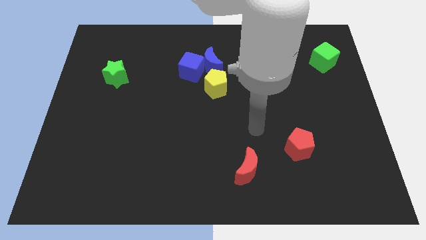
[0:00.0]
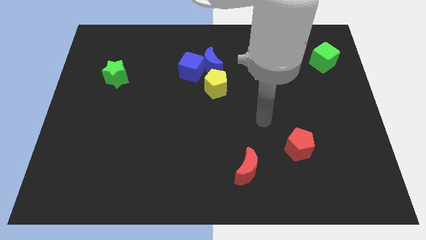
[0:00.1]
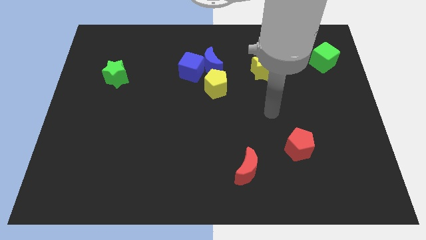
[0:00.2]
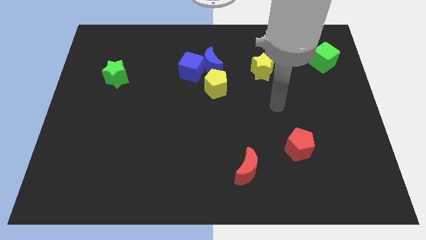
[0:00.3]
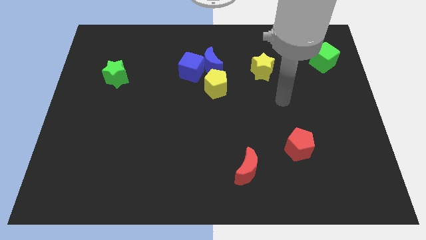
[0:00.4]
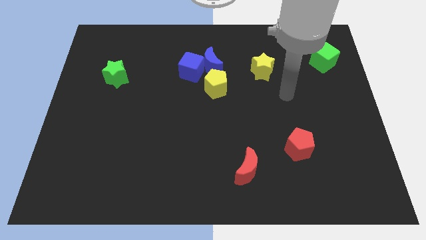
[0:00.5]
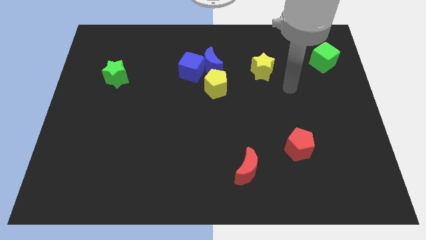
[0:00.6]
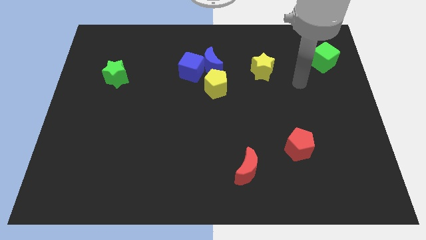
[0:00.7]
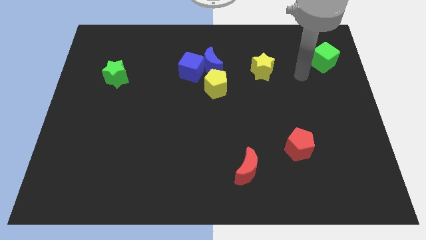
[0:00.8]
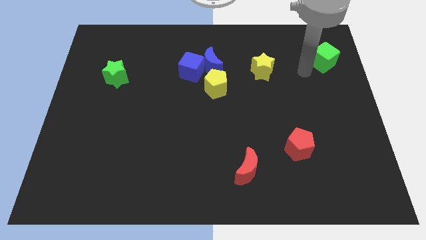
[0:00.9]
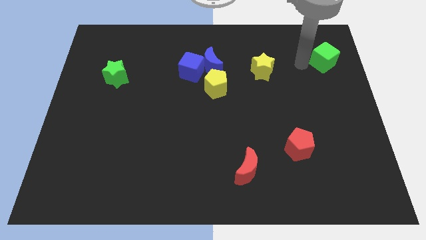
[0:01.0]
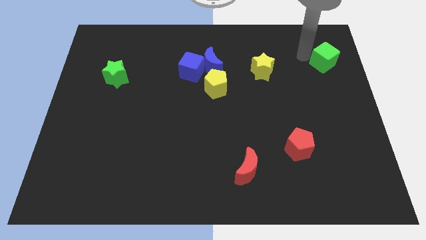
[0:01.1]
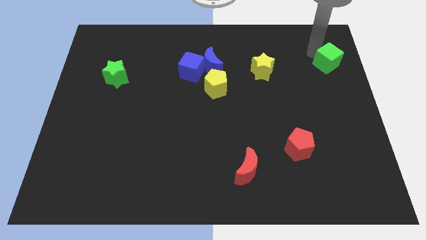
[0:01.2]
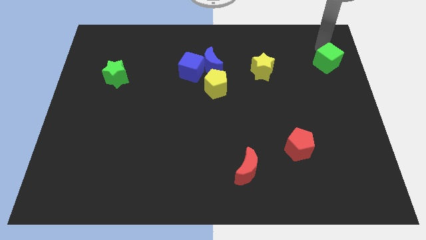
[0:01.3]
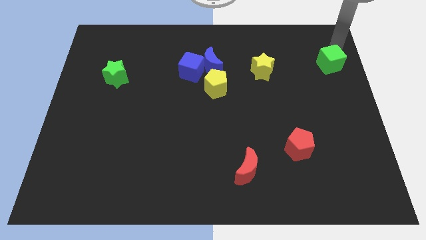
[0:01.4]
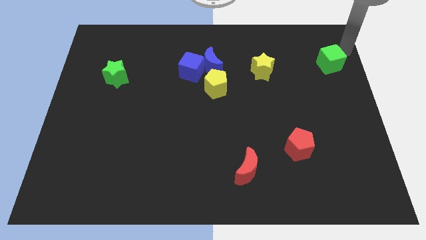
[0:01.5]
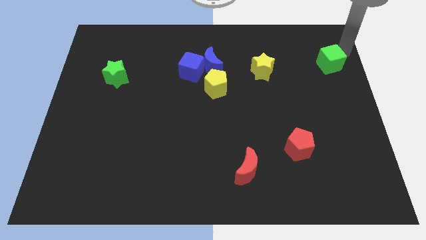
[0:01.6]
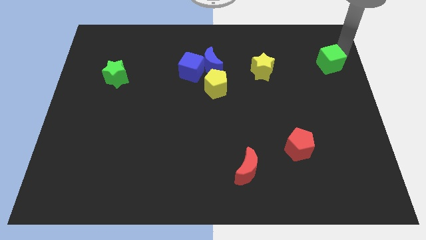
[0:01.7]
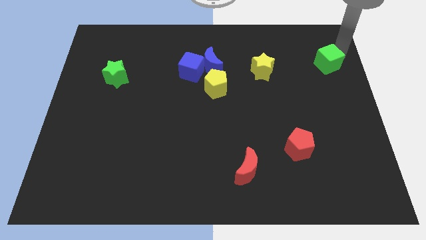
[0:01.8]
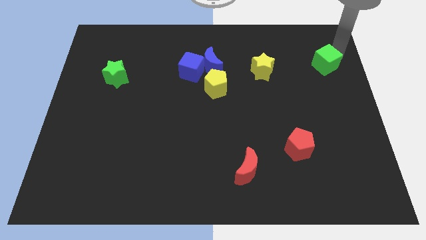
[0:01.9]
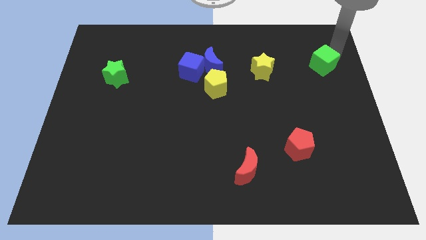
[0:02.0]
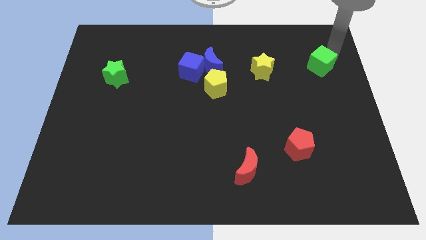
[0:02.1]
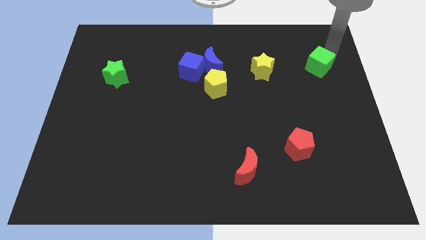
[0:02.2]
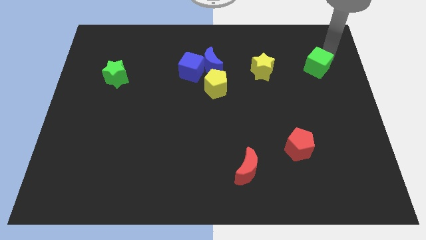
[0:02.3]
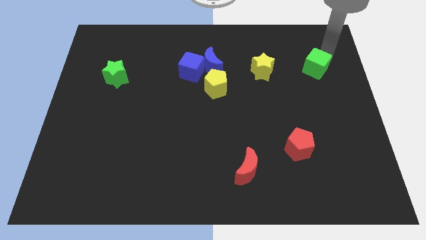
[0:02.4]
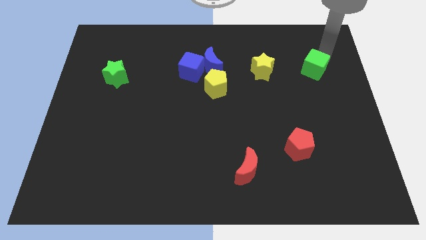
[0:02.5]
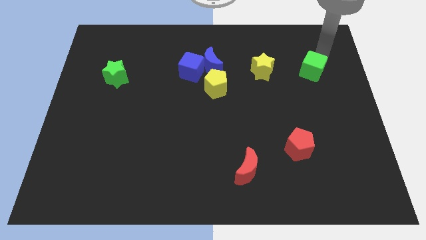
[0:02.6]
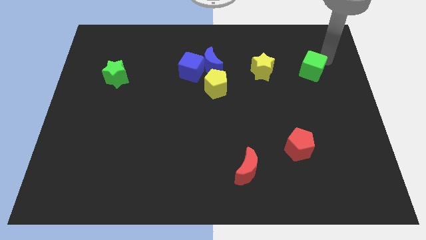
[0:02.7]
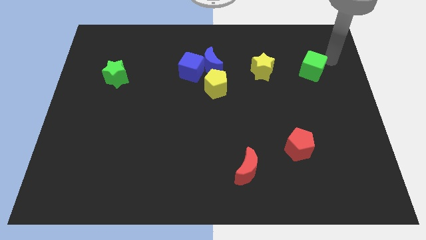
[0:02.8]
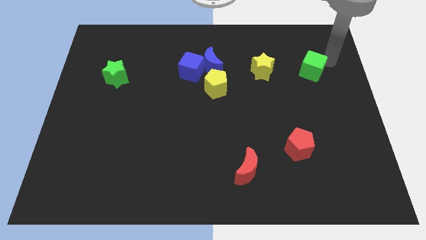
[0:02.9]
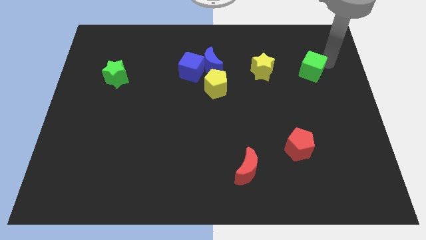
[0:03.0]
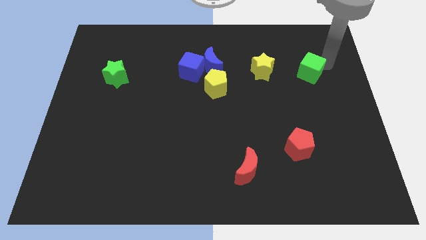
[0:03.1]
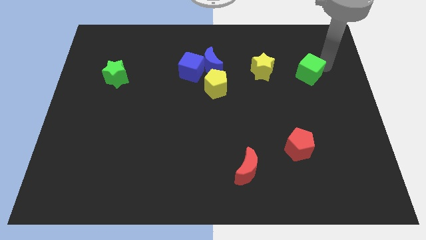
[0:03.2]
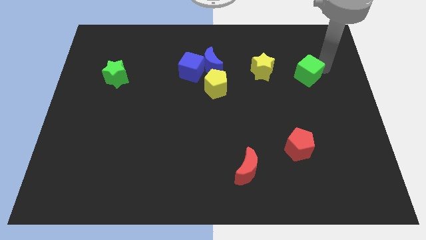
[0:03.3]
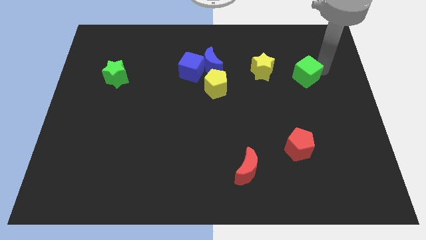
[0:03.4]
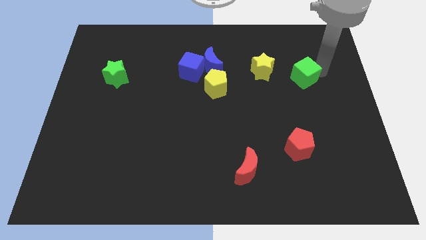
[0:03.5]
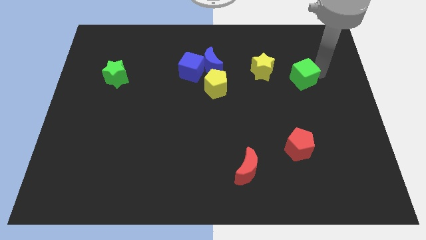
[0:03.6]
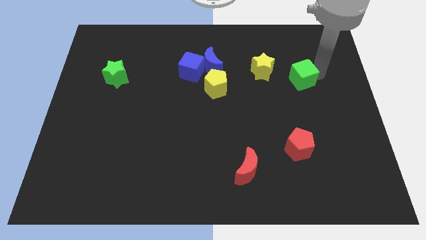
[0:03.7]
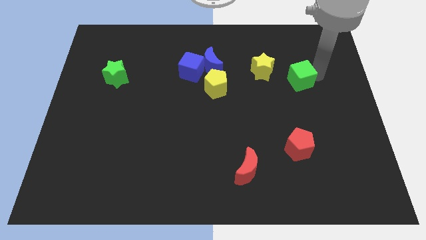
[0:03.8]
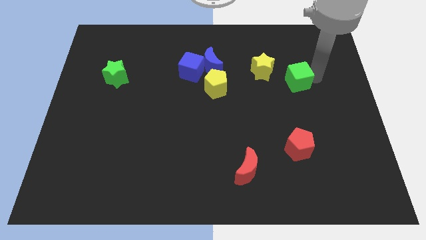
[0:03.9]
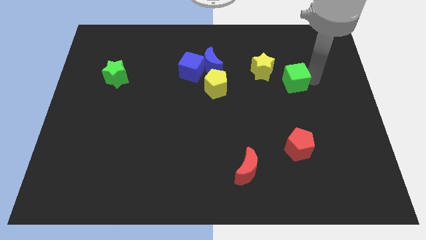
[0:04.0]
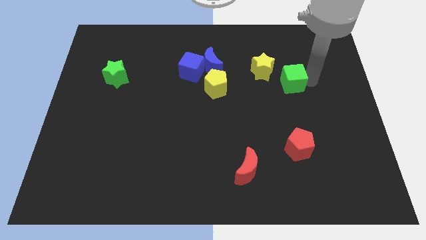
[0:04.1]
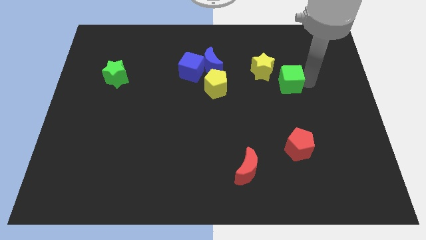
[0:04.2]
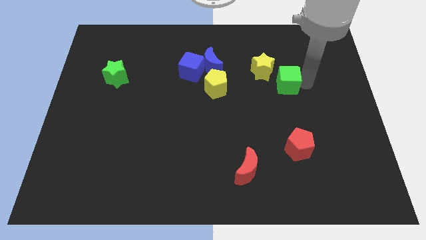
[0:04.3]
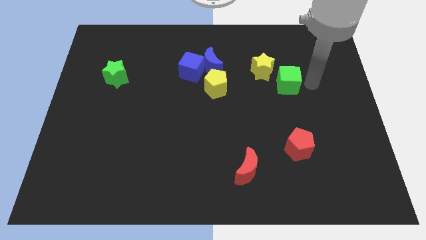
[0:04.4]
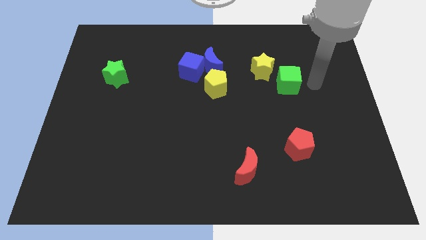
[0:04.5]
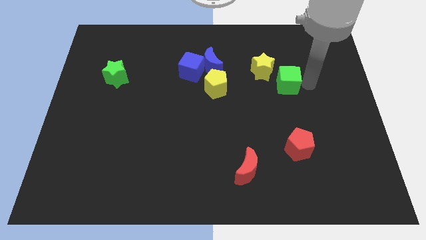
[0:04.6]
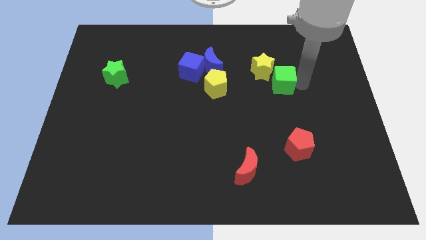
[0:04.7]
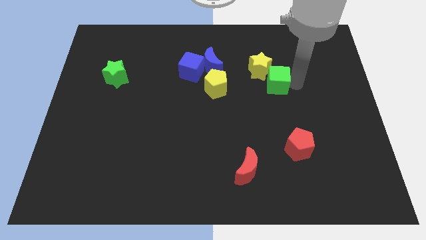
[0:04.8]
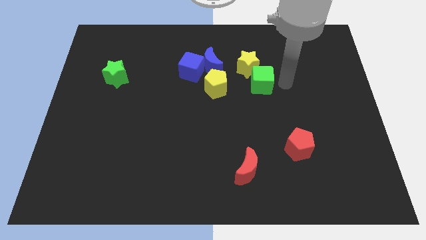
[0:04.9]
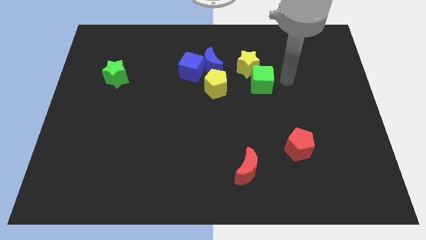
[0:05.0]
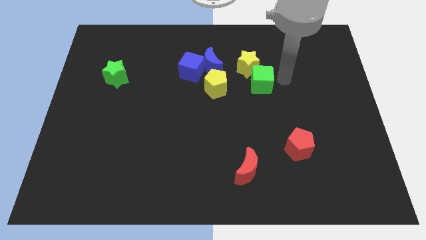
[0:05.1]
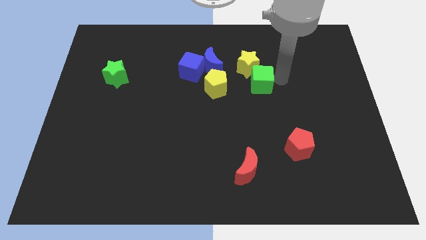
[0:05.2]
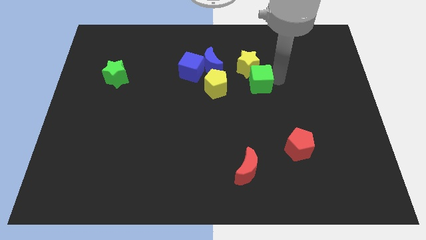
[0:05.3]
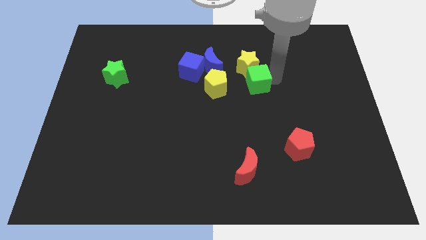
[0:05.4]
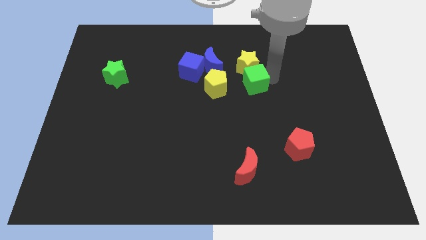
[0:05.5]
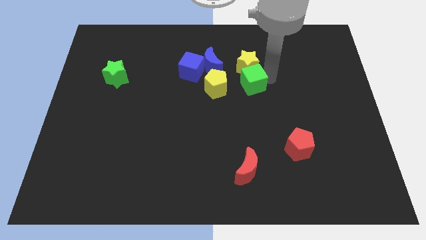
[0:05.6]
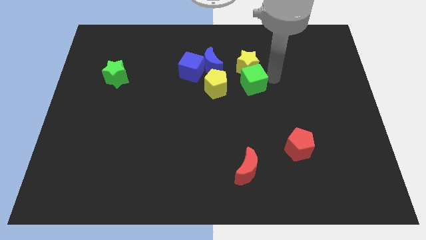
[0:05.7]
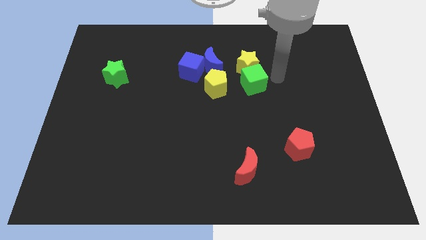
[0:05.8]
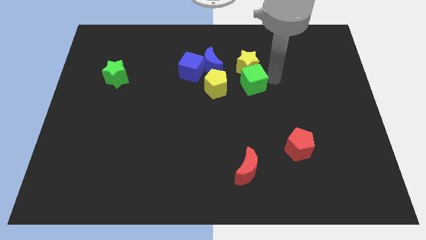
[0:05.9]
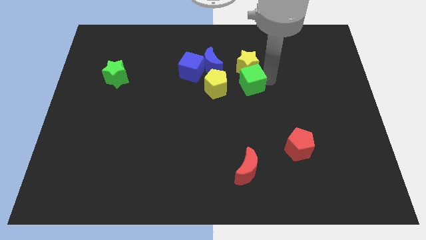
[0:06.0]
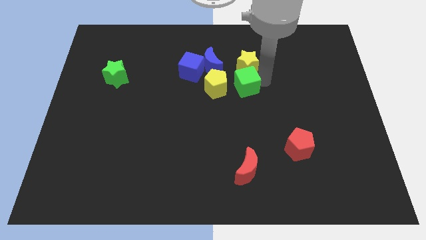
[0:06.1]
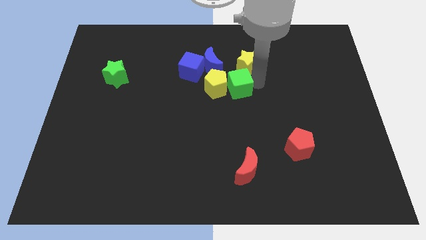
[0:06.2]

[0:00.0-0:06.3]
put the green cube next to the yellow pentagon

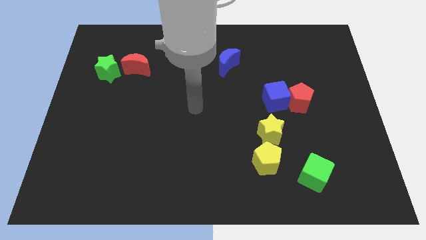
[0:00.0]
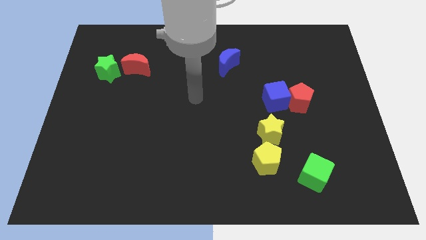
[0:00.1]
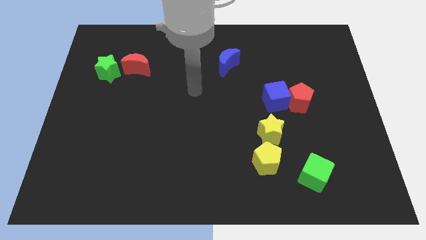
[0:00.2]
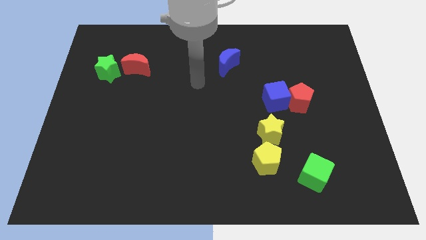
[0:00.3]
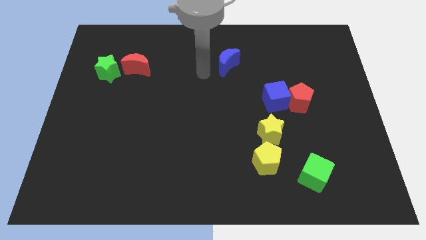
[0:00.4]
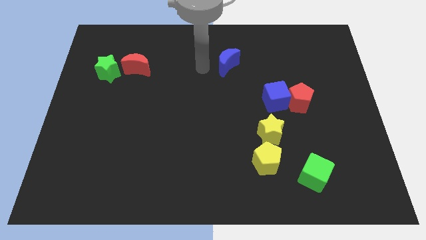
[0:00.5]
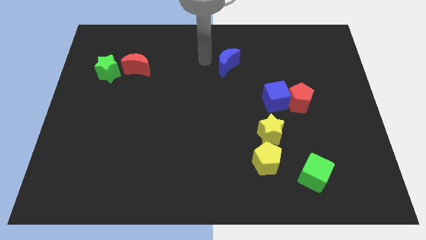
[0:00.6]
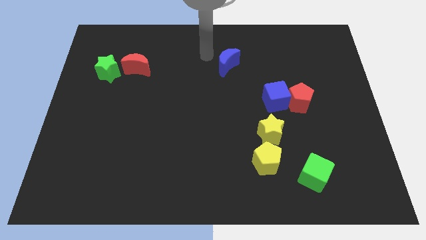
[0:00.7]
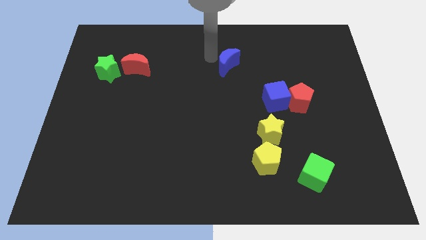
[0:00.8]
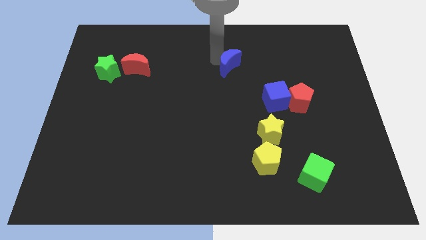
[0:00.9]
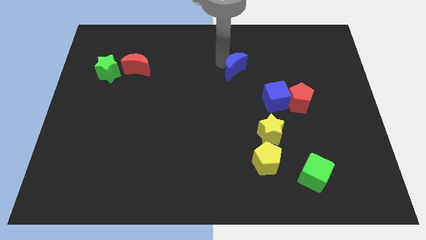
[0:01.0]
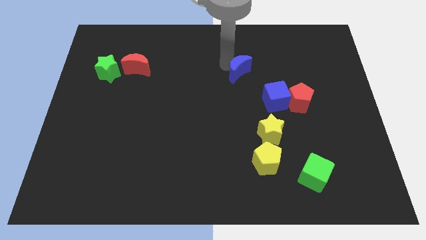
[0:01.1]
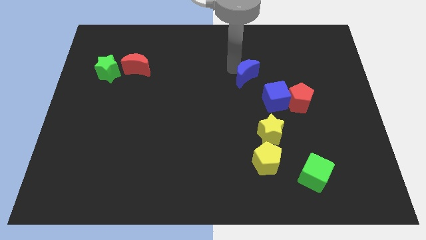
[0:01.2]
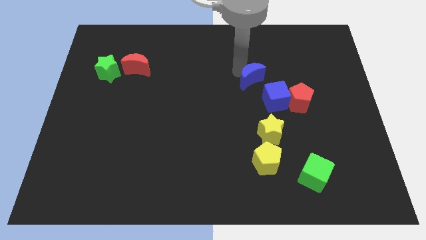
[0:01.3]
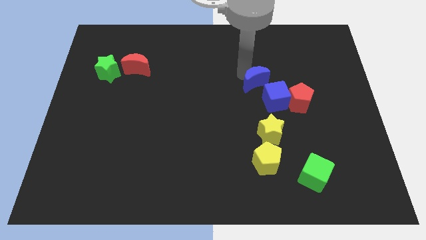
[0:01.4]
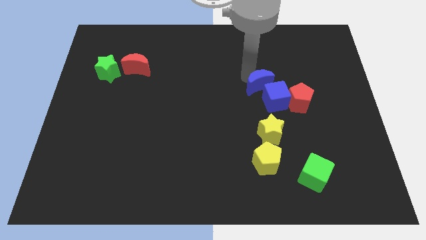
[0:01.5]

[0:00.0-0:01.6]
slide the blue moon close to the blue cube

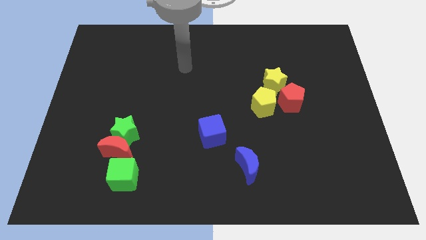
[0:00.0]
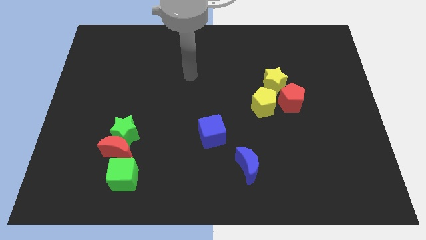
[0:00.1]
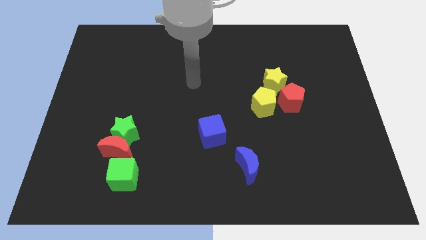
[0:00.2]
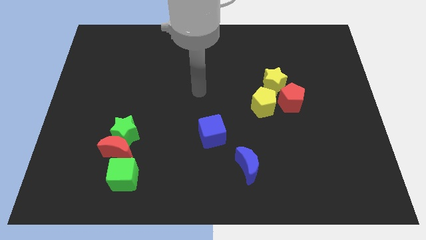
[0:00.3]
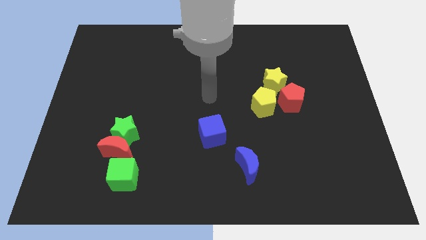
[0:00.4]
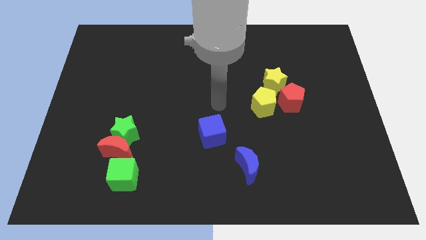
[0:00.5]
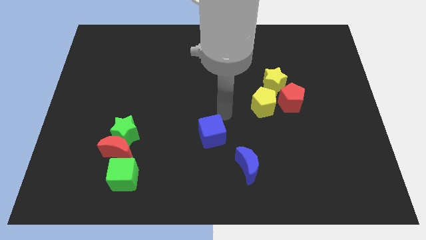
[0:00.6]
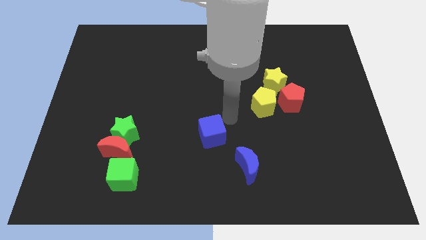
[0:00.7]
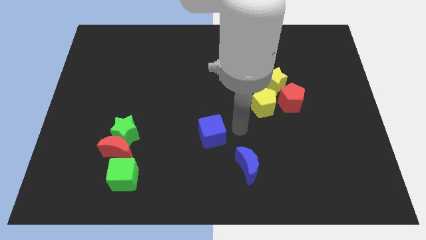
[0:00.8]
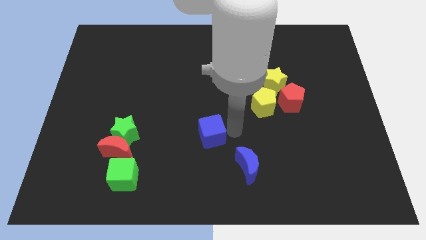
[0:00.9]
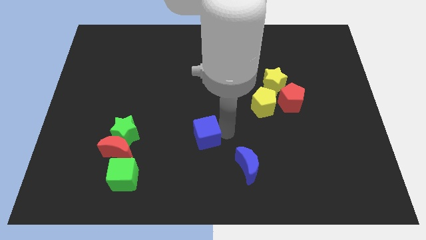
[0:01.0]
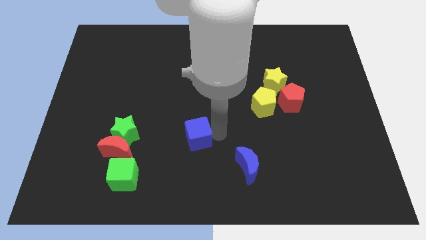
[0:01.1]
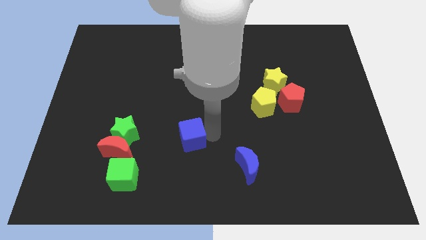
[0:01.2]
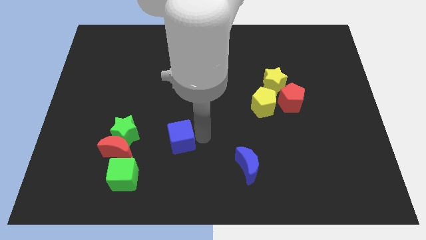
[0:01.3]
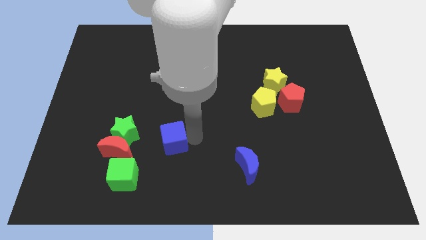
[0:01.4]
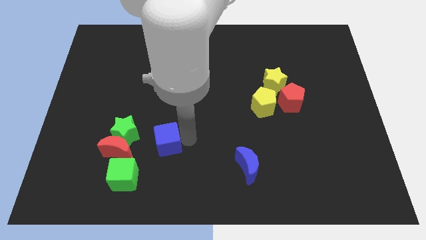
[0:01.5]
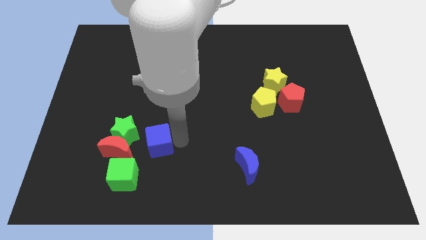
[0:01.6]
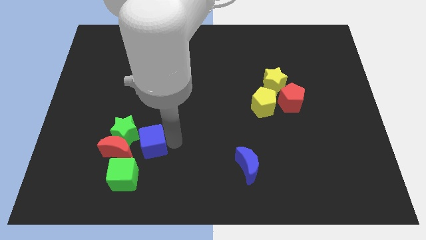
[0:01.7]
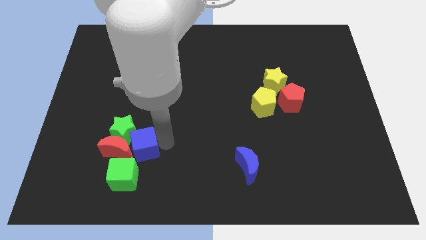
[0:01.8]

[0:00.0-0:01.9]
push the blue cube towards the red moon
